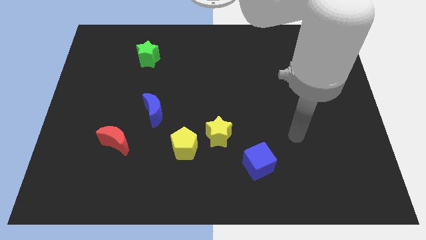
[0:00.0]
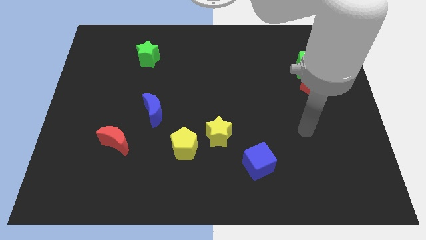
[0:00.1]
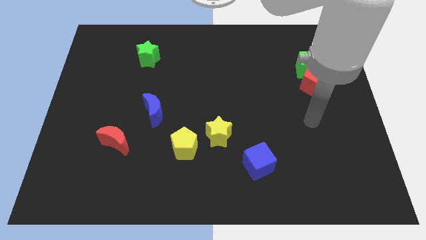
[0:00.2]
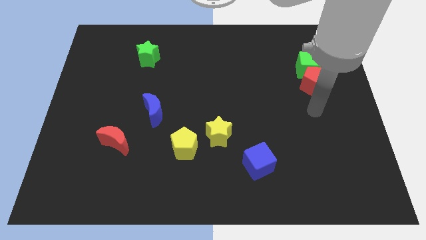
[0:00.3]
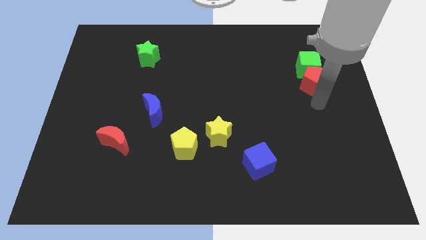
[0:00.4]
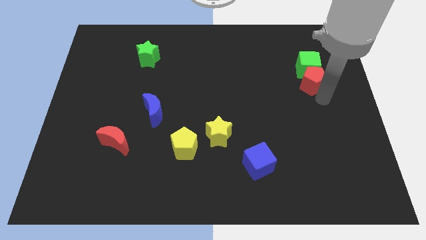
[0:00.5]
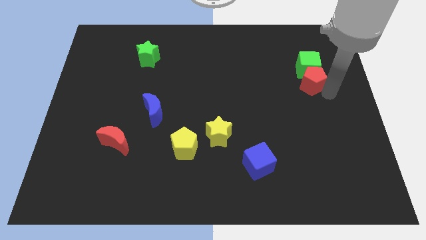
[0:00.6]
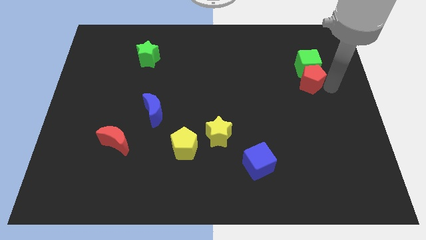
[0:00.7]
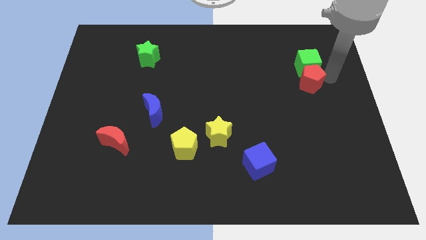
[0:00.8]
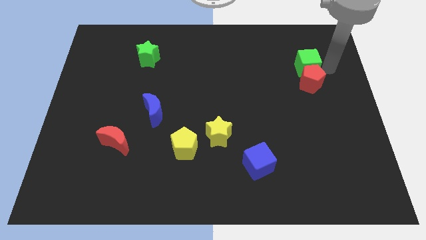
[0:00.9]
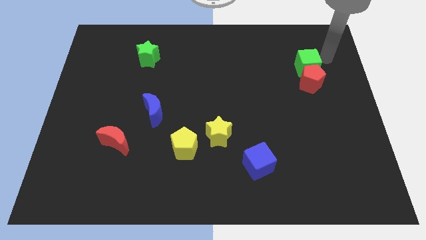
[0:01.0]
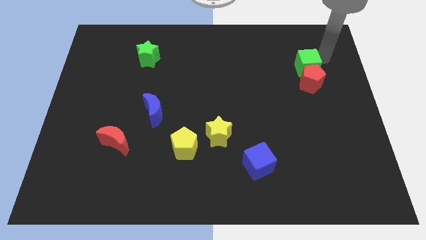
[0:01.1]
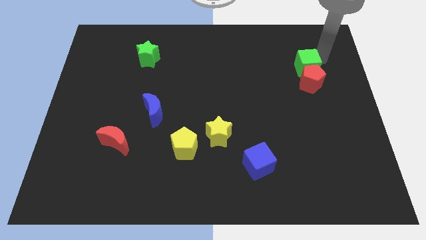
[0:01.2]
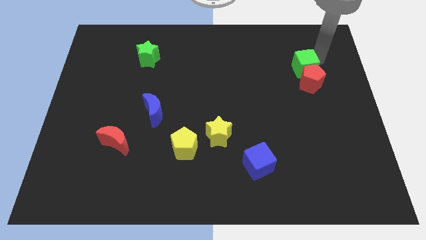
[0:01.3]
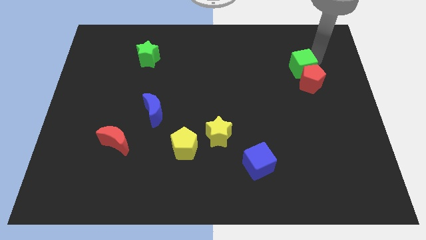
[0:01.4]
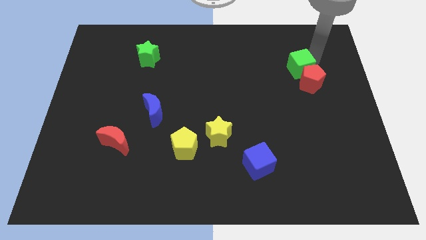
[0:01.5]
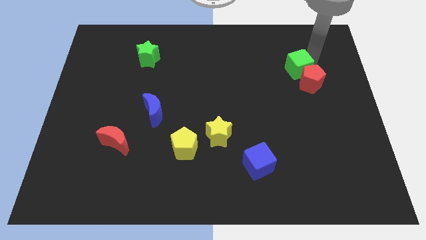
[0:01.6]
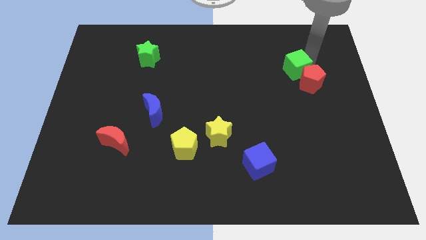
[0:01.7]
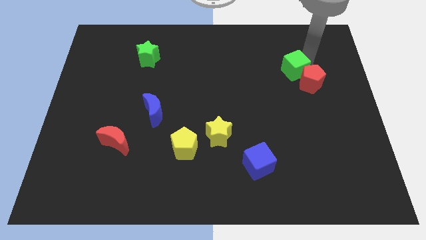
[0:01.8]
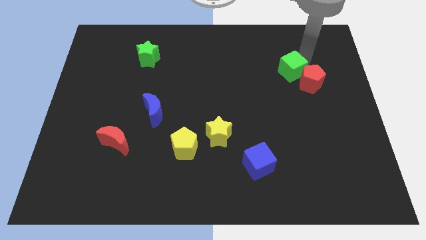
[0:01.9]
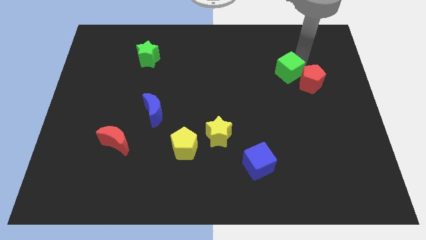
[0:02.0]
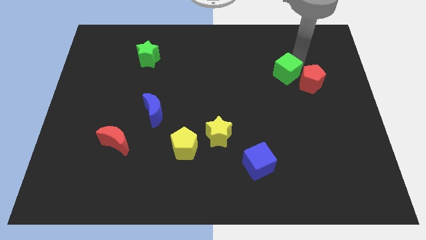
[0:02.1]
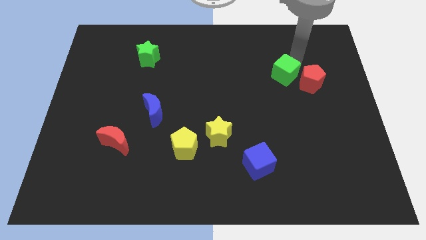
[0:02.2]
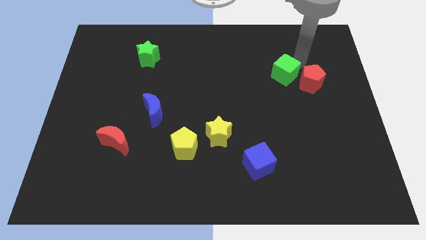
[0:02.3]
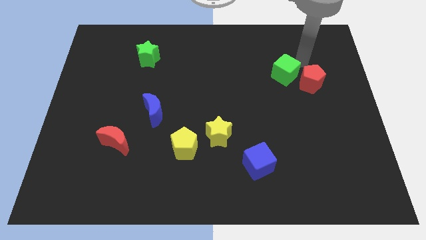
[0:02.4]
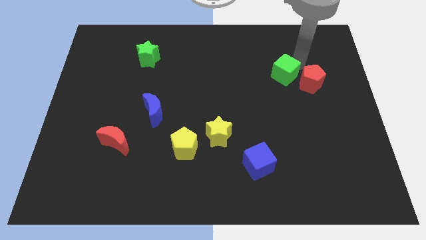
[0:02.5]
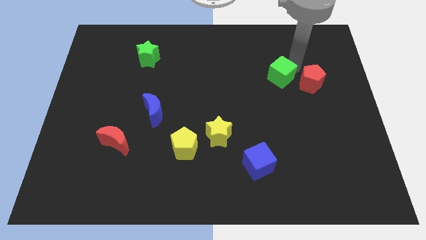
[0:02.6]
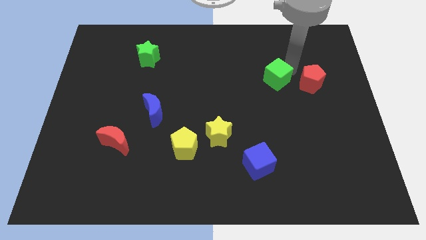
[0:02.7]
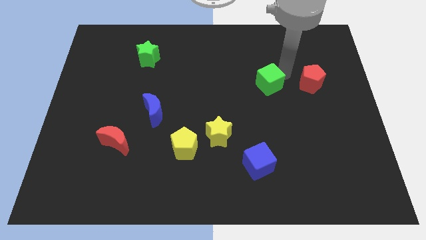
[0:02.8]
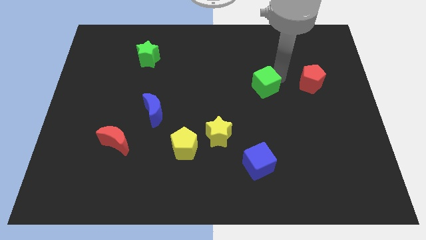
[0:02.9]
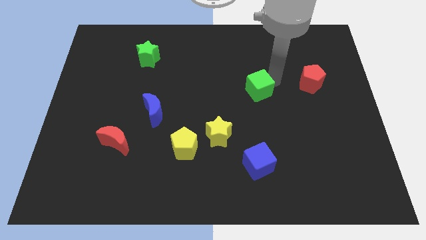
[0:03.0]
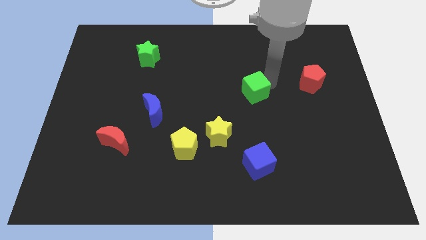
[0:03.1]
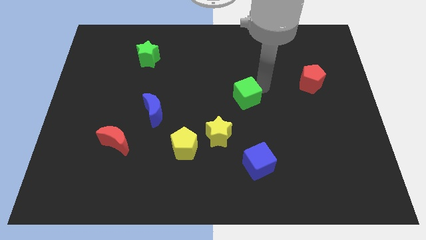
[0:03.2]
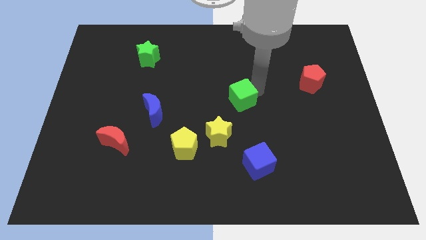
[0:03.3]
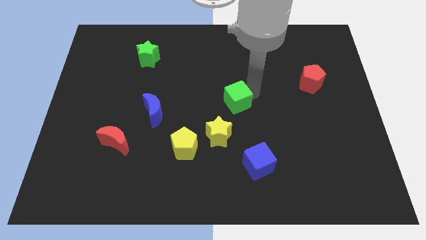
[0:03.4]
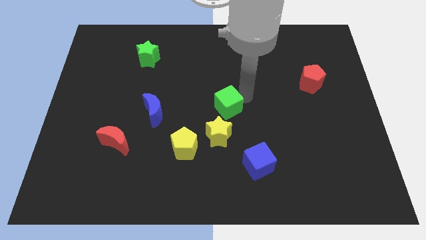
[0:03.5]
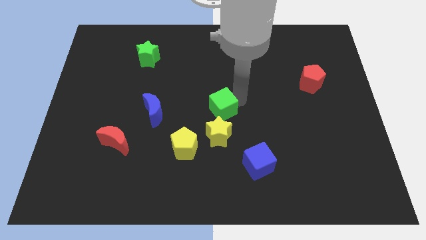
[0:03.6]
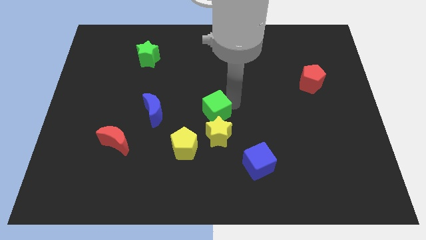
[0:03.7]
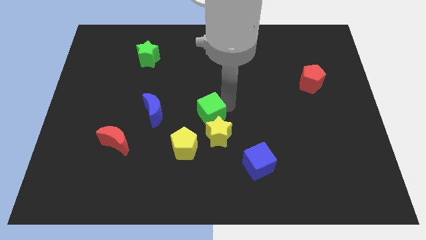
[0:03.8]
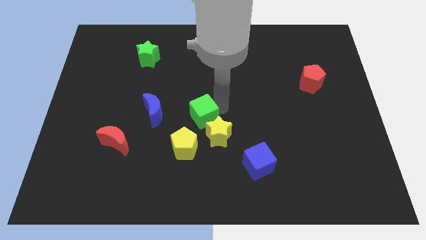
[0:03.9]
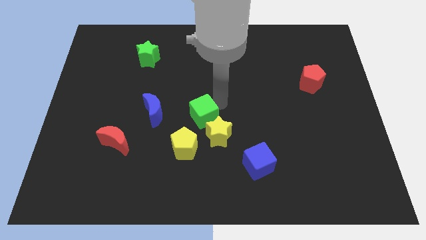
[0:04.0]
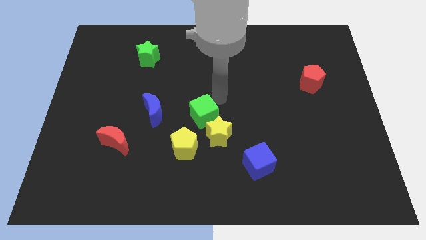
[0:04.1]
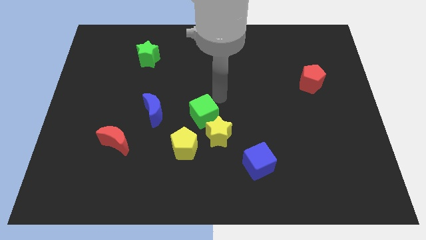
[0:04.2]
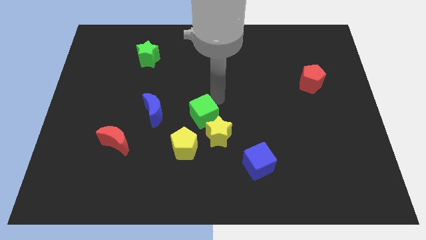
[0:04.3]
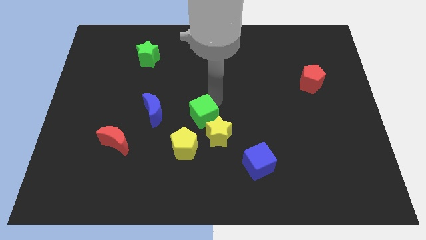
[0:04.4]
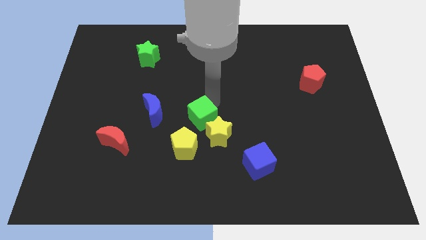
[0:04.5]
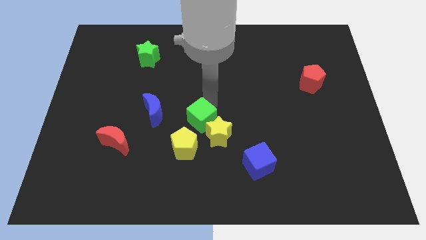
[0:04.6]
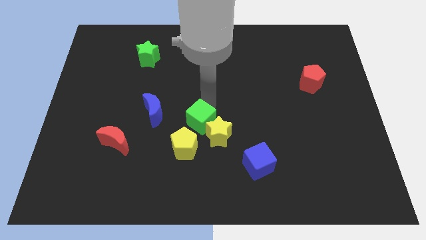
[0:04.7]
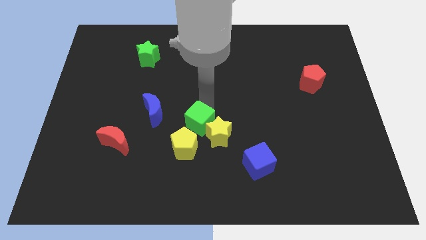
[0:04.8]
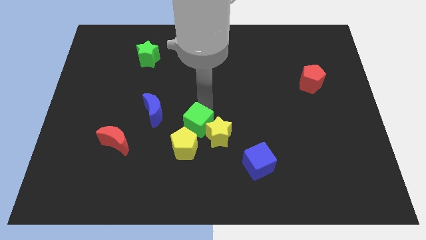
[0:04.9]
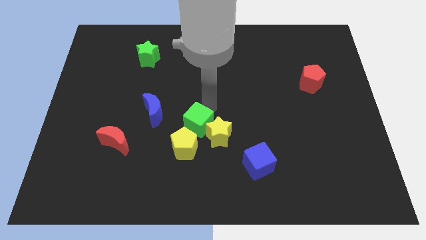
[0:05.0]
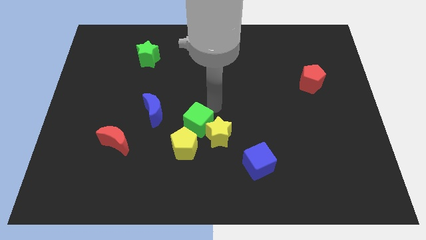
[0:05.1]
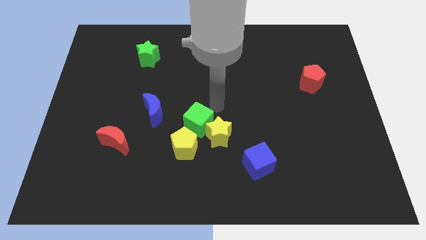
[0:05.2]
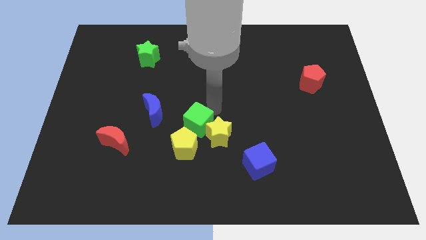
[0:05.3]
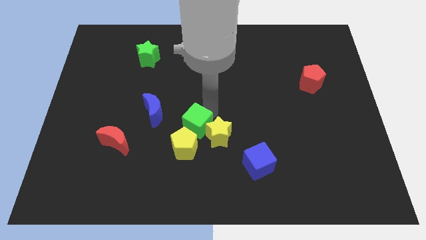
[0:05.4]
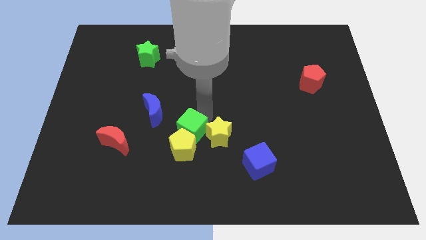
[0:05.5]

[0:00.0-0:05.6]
push the green cube close to the yellow pentagon

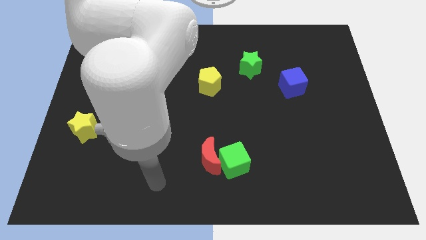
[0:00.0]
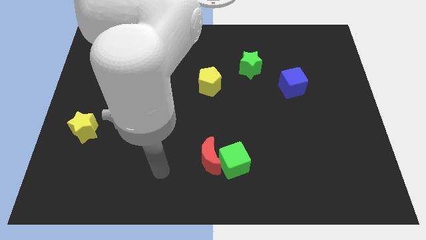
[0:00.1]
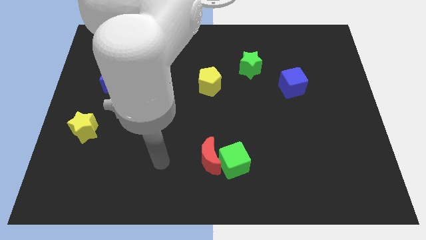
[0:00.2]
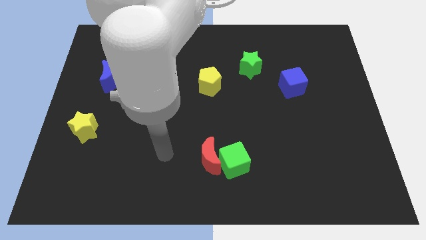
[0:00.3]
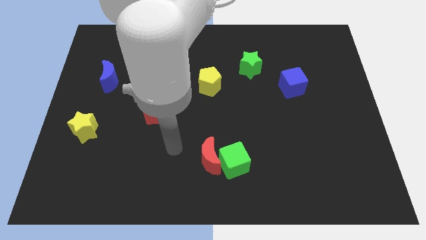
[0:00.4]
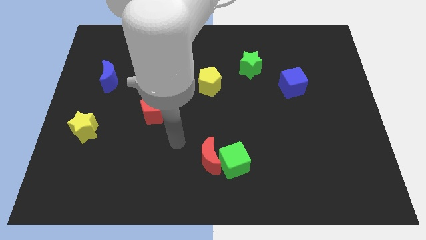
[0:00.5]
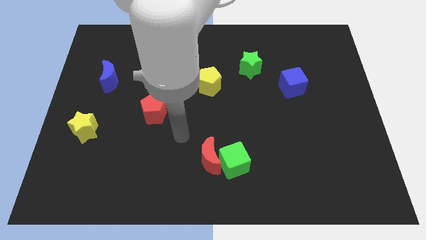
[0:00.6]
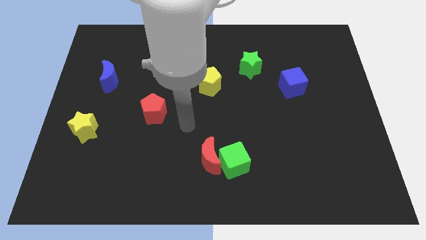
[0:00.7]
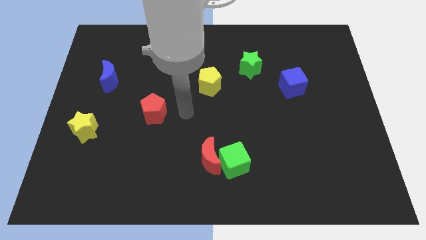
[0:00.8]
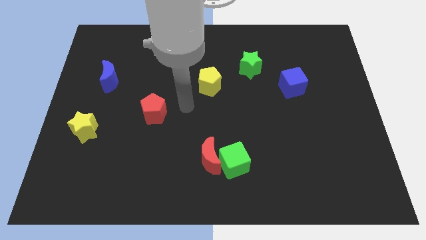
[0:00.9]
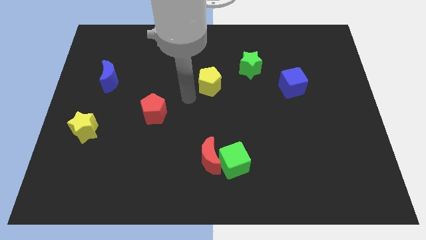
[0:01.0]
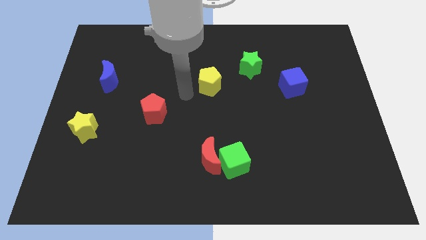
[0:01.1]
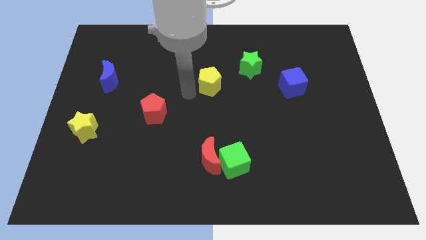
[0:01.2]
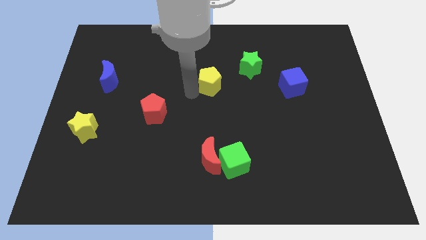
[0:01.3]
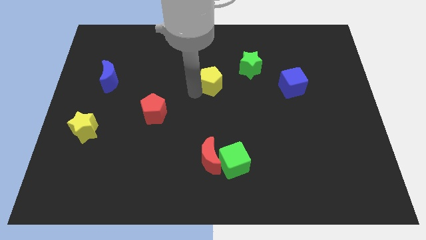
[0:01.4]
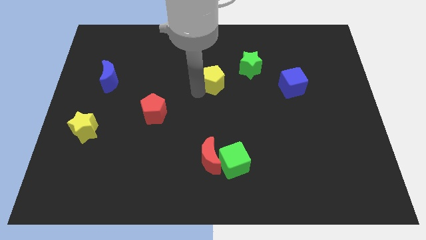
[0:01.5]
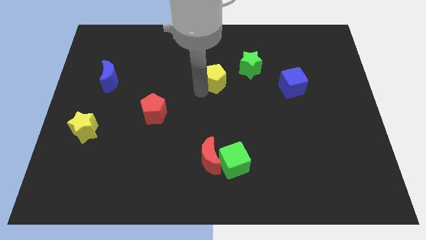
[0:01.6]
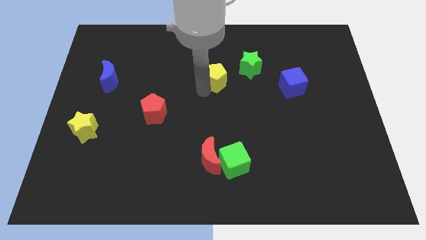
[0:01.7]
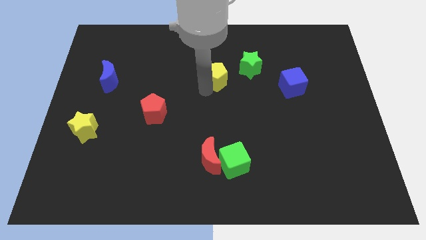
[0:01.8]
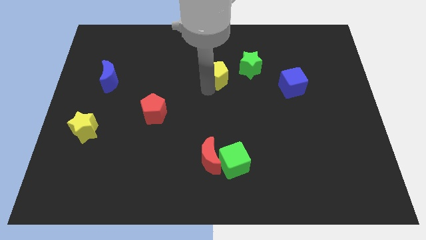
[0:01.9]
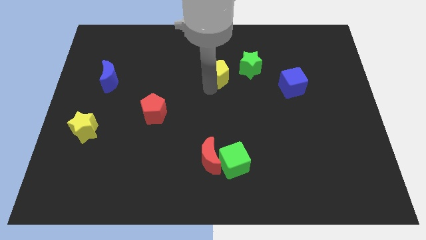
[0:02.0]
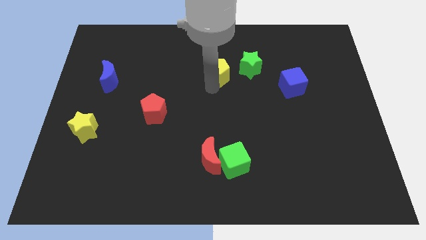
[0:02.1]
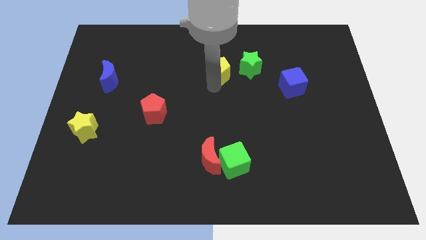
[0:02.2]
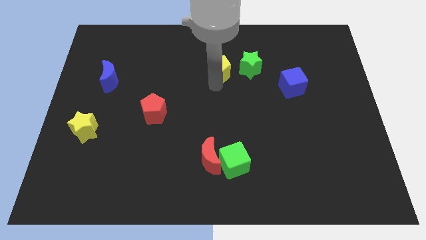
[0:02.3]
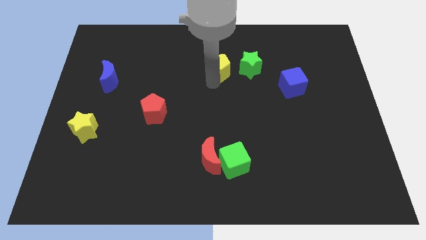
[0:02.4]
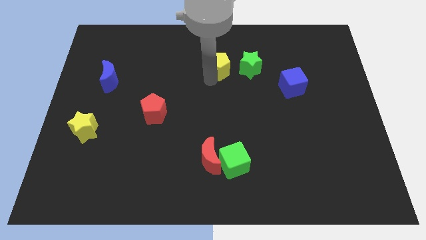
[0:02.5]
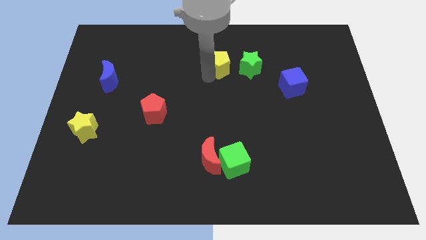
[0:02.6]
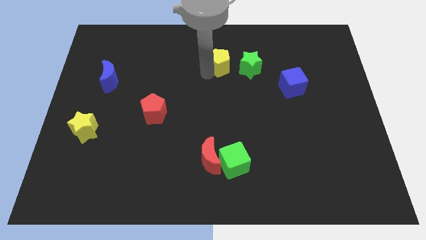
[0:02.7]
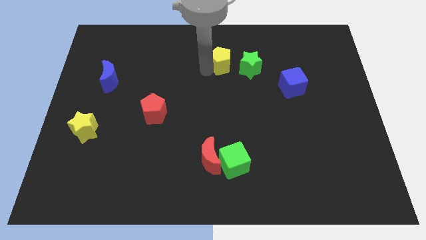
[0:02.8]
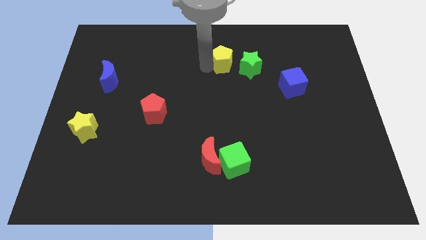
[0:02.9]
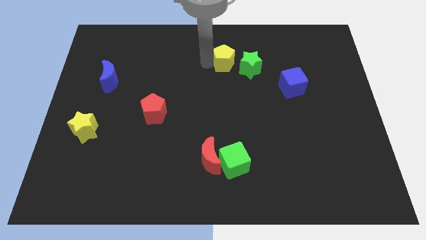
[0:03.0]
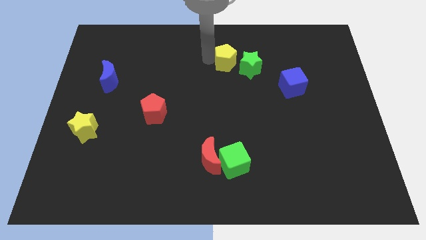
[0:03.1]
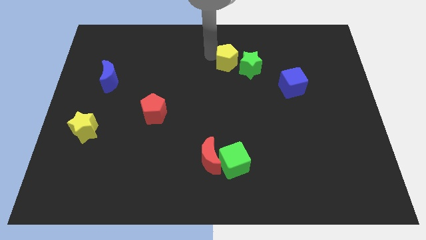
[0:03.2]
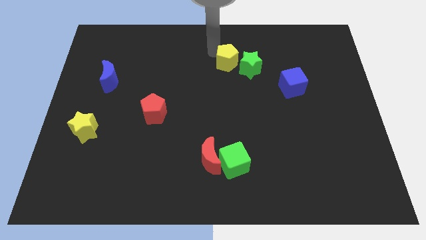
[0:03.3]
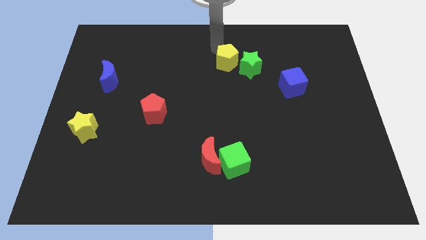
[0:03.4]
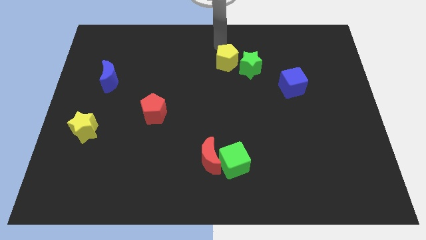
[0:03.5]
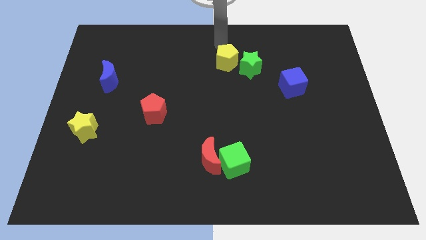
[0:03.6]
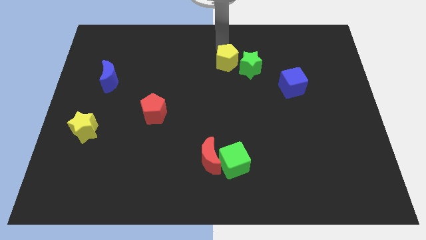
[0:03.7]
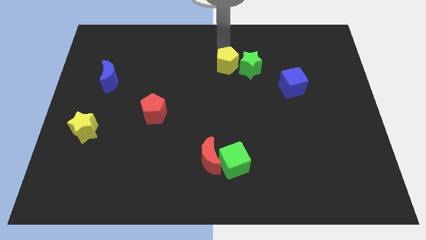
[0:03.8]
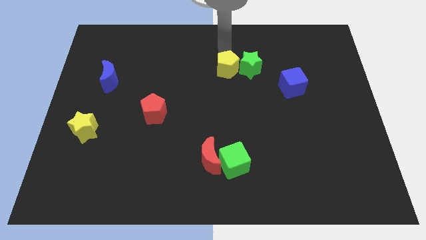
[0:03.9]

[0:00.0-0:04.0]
push the yellow pentagon towards the green star
